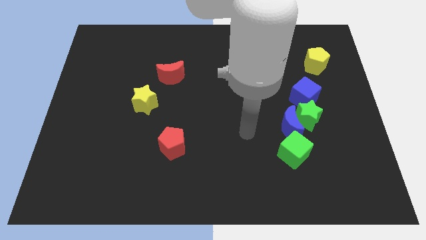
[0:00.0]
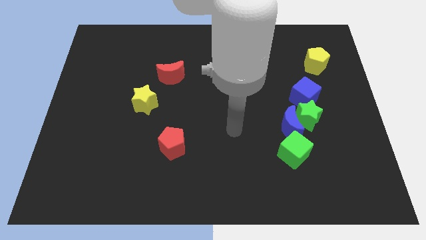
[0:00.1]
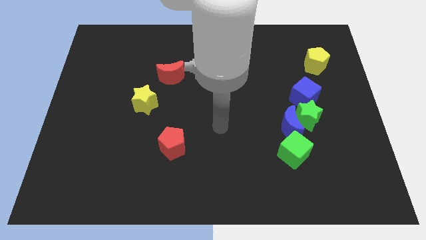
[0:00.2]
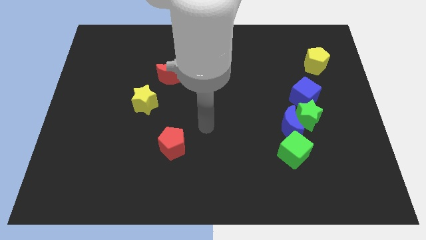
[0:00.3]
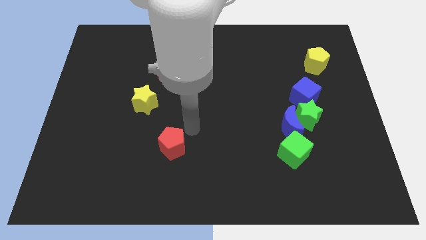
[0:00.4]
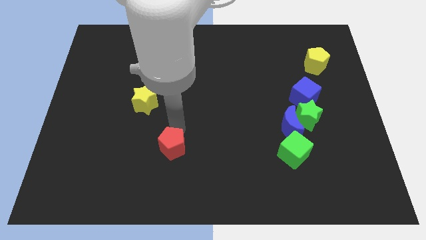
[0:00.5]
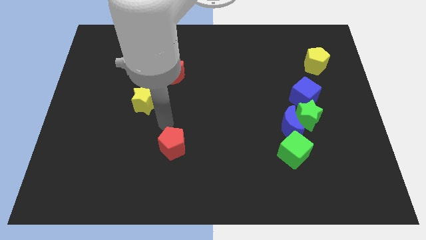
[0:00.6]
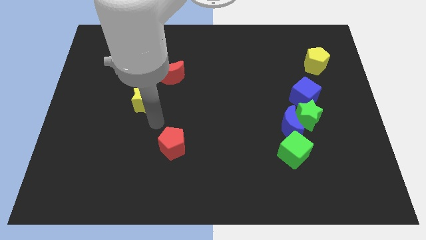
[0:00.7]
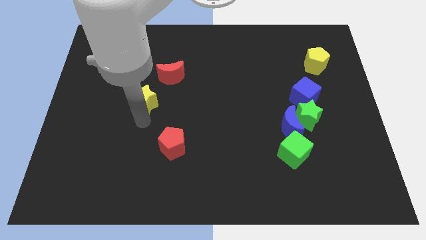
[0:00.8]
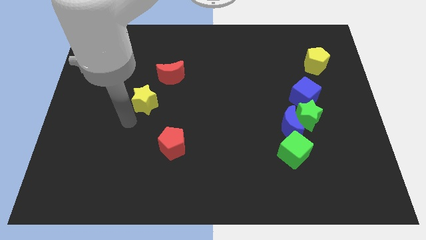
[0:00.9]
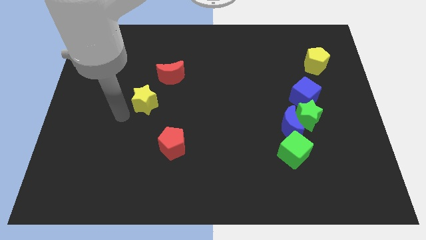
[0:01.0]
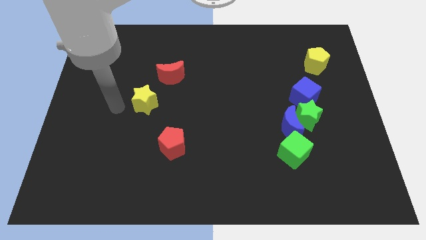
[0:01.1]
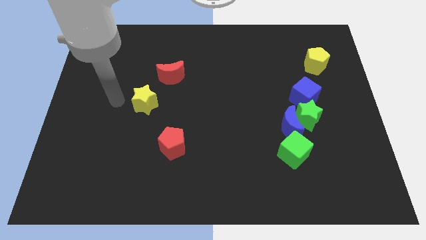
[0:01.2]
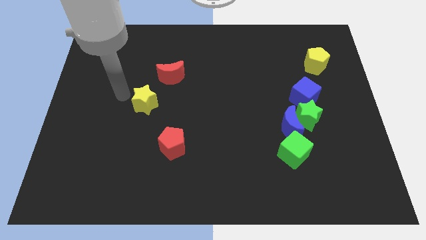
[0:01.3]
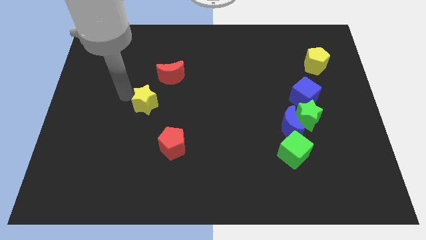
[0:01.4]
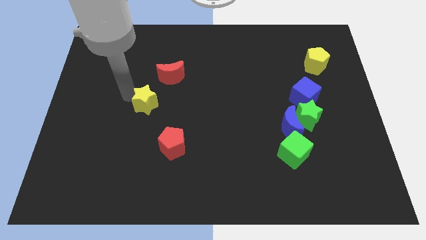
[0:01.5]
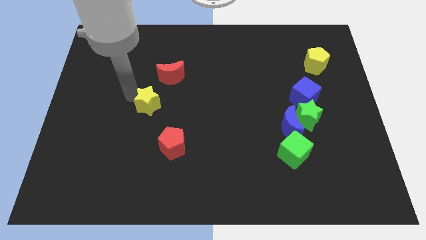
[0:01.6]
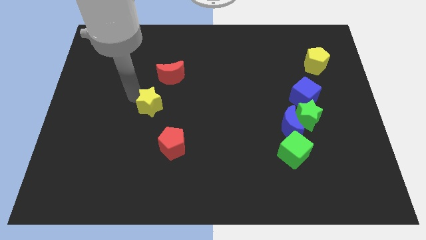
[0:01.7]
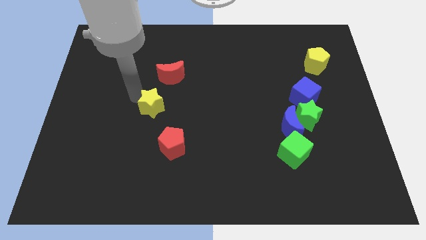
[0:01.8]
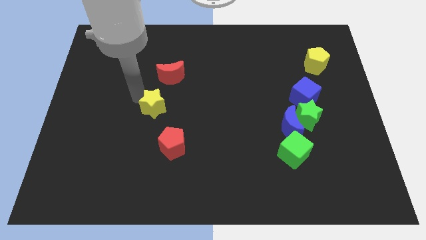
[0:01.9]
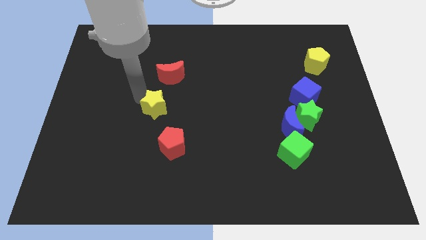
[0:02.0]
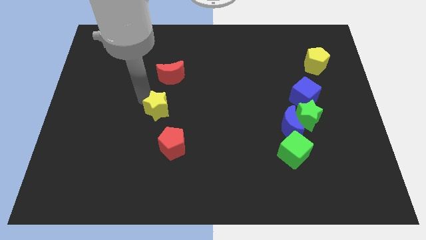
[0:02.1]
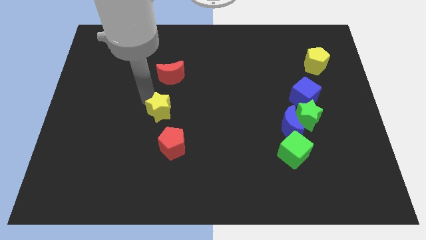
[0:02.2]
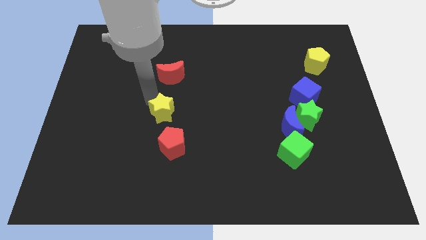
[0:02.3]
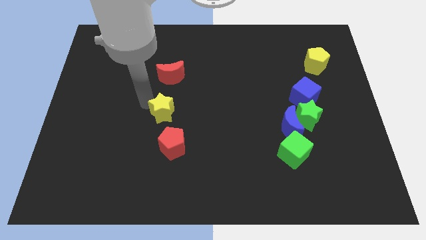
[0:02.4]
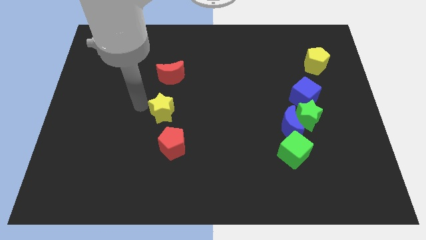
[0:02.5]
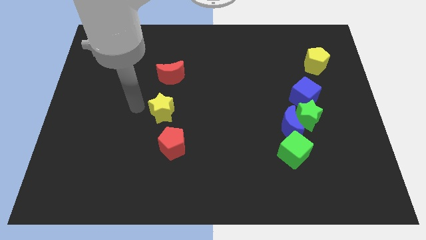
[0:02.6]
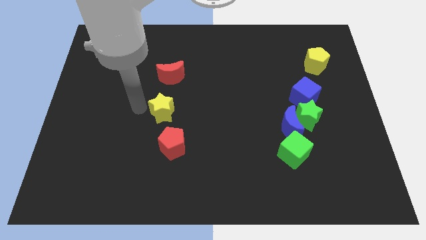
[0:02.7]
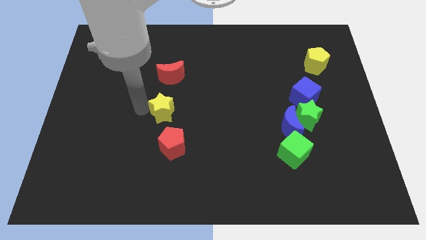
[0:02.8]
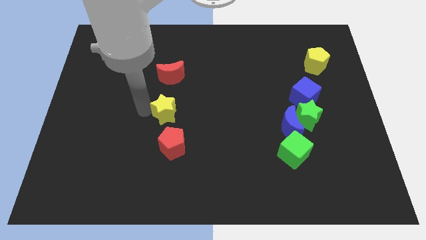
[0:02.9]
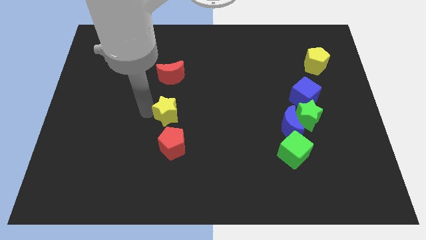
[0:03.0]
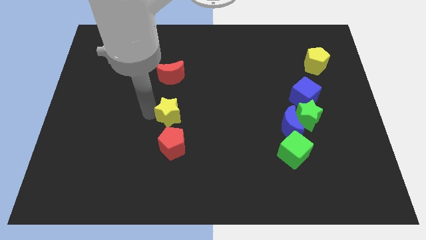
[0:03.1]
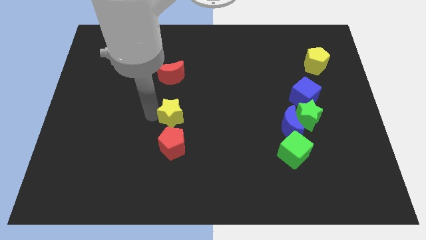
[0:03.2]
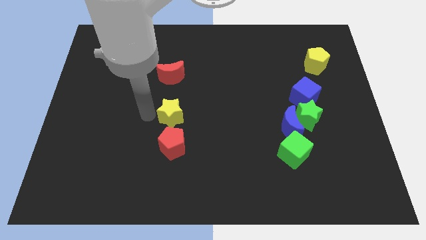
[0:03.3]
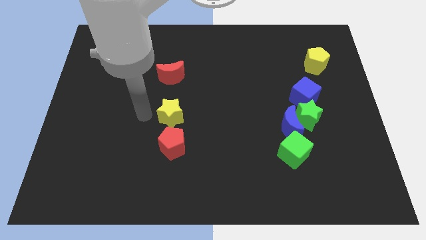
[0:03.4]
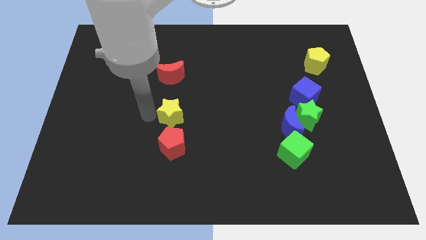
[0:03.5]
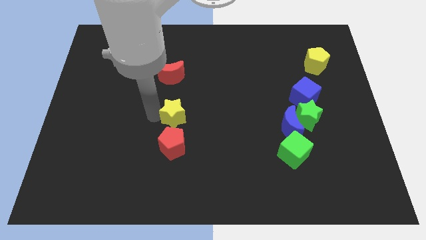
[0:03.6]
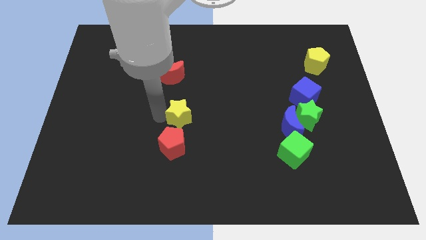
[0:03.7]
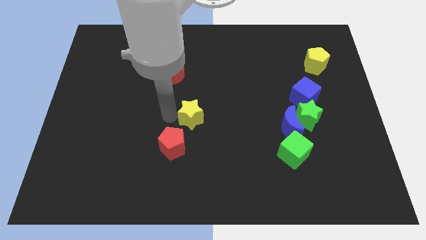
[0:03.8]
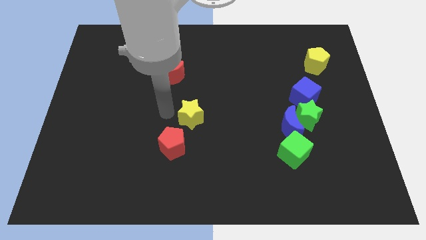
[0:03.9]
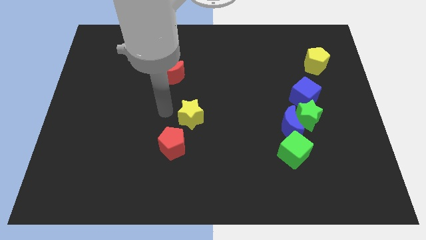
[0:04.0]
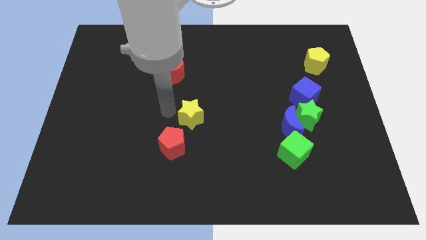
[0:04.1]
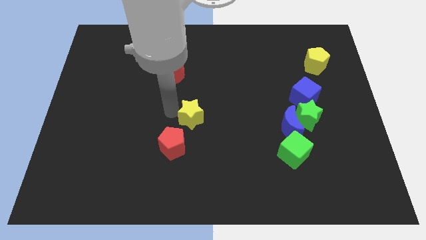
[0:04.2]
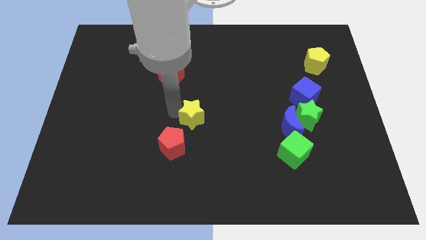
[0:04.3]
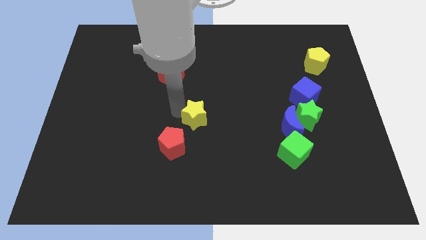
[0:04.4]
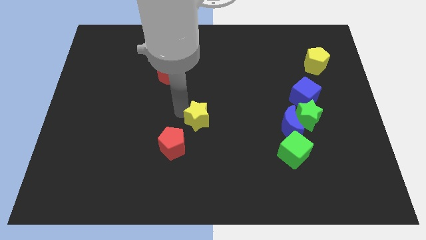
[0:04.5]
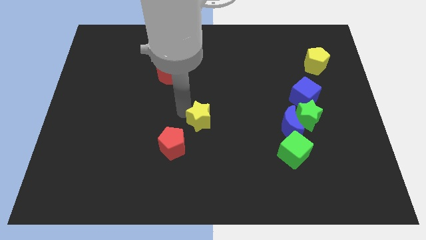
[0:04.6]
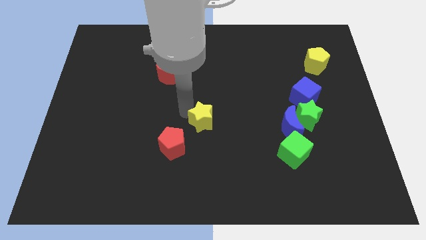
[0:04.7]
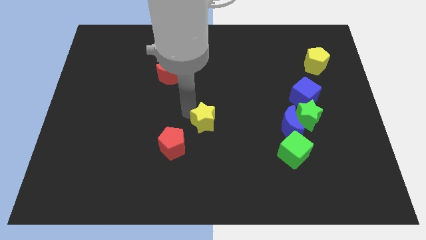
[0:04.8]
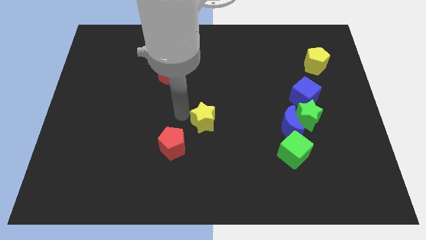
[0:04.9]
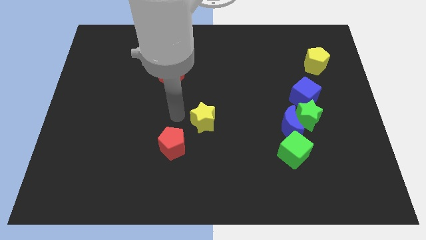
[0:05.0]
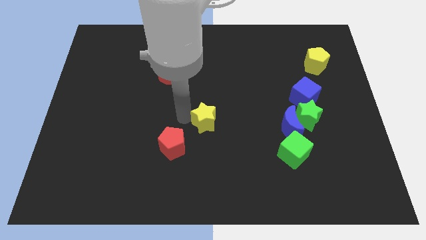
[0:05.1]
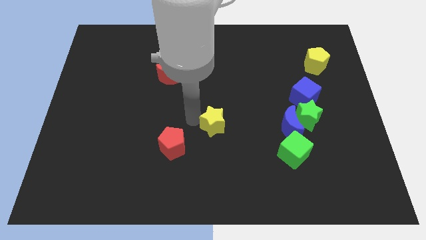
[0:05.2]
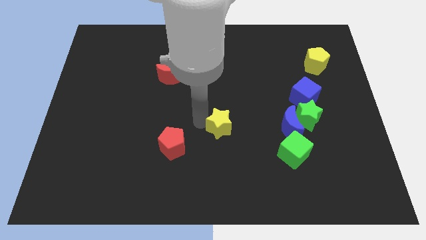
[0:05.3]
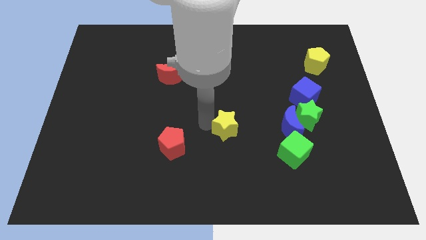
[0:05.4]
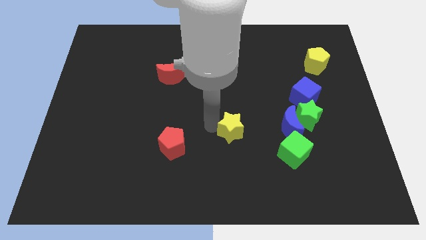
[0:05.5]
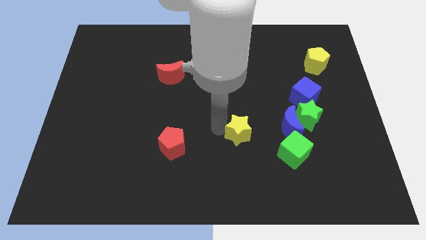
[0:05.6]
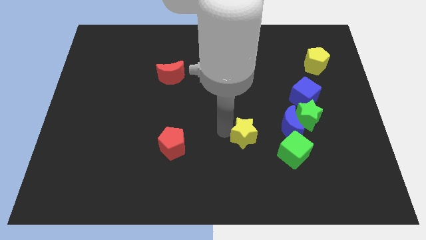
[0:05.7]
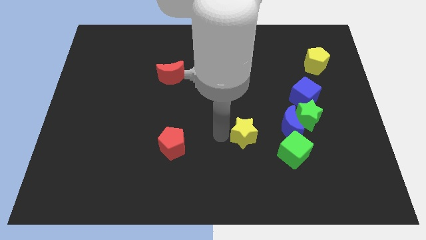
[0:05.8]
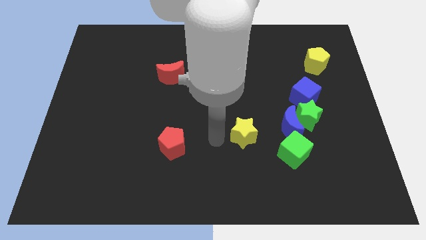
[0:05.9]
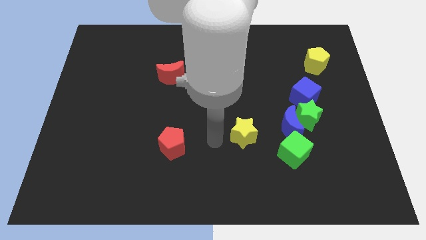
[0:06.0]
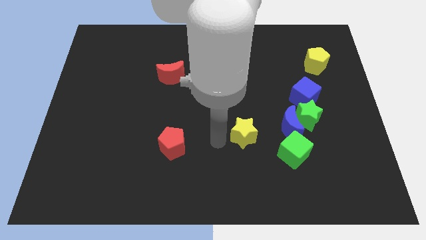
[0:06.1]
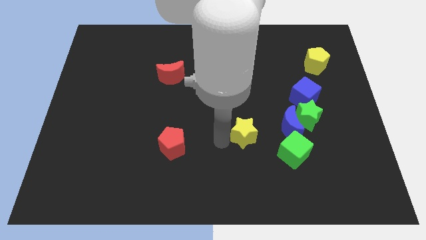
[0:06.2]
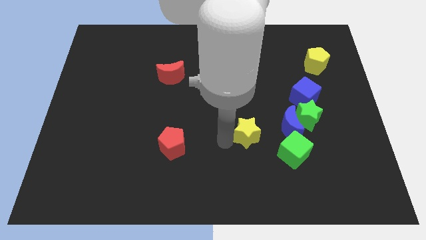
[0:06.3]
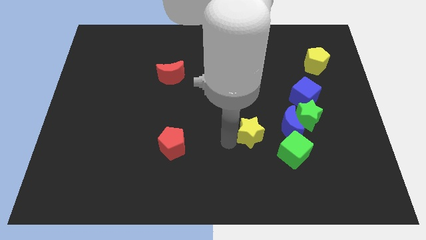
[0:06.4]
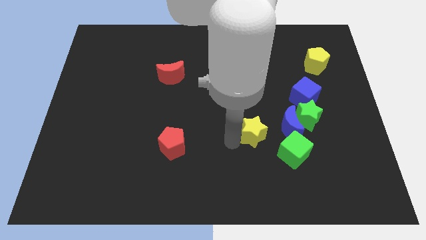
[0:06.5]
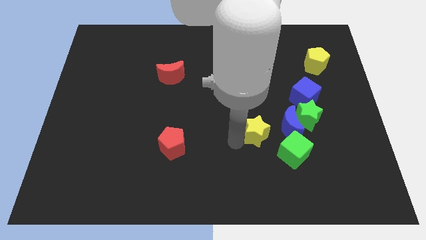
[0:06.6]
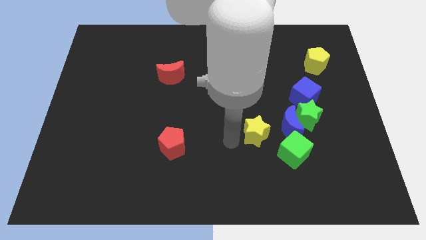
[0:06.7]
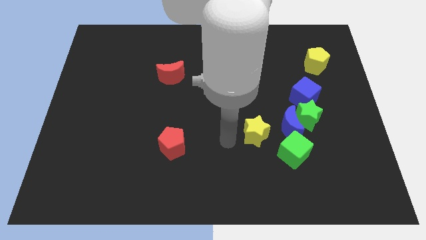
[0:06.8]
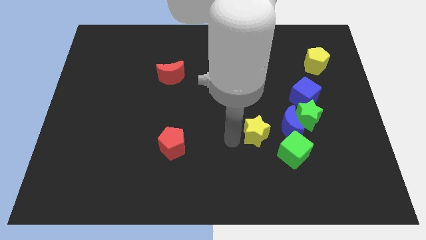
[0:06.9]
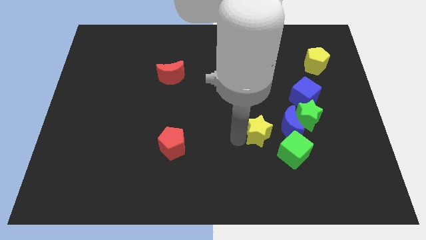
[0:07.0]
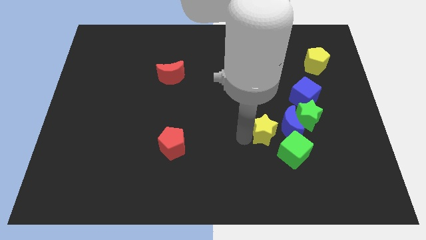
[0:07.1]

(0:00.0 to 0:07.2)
put the yellow star close to the blue moon

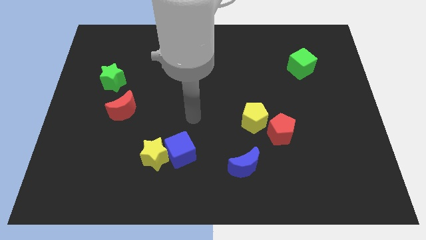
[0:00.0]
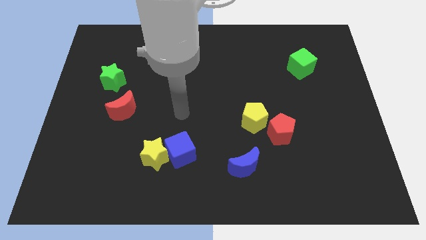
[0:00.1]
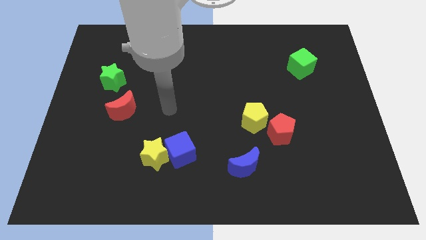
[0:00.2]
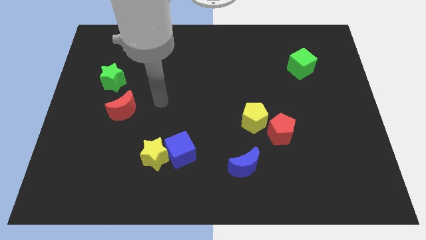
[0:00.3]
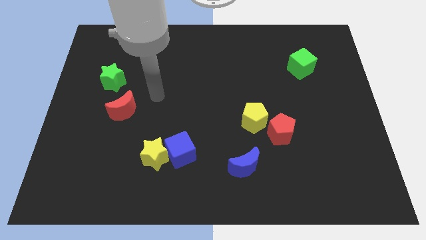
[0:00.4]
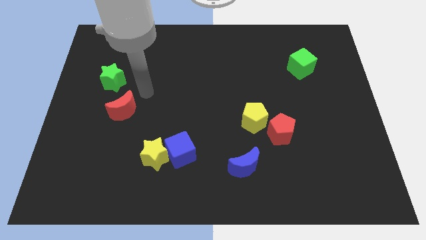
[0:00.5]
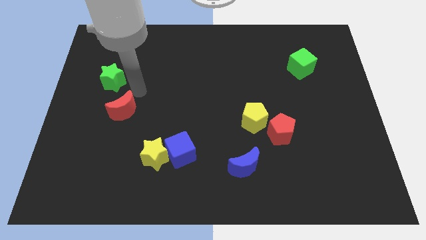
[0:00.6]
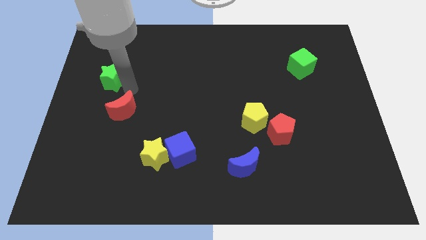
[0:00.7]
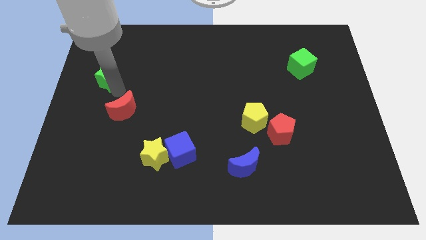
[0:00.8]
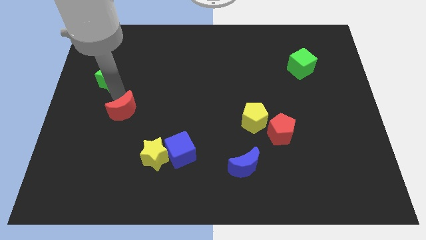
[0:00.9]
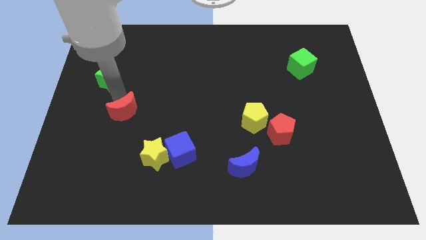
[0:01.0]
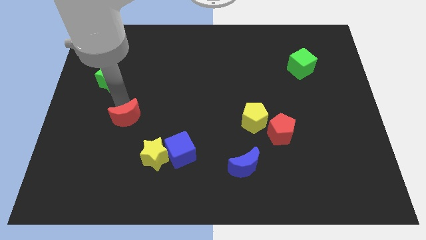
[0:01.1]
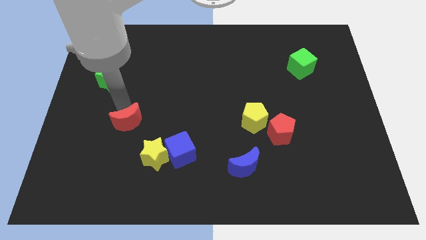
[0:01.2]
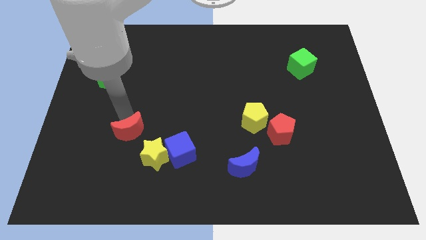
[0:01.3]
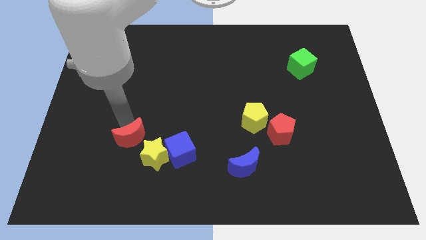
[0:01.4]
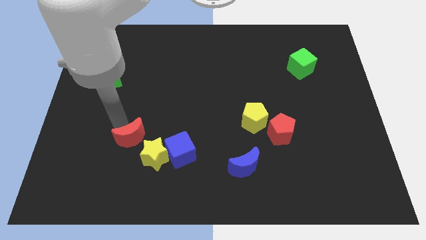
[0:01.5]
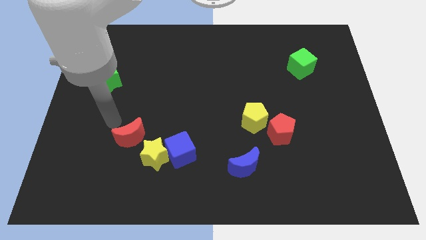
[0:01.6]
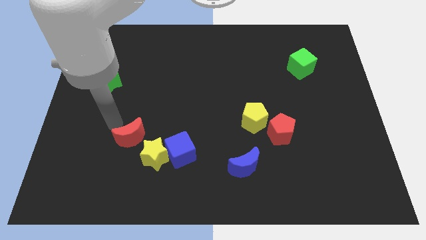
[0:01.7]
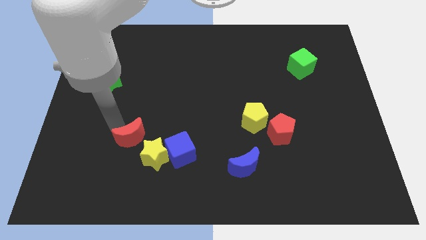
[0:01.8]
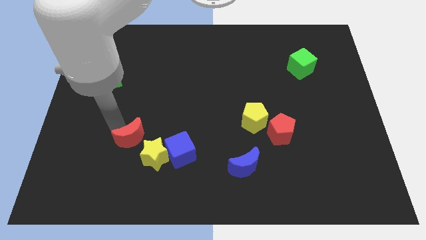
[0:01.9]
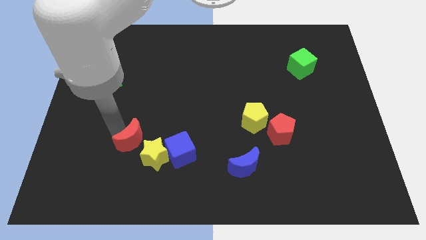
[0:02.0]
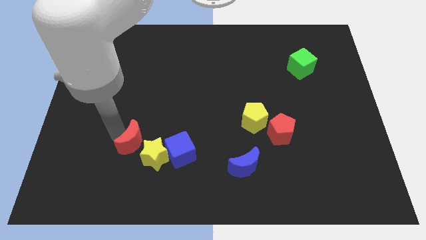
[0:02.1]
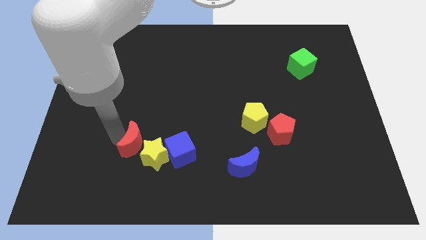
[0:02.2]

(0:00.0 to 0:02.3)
move the red moon next to the yellow star
